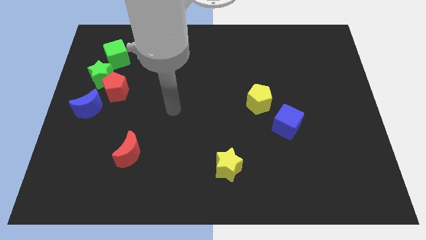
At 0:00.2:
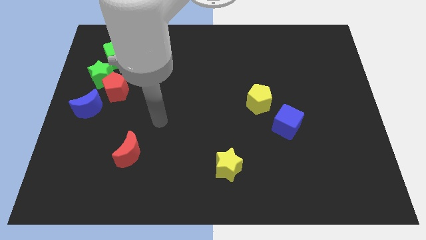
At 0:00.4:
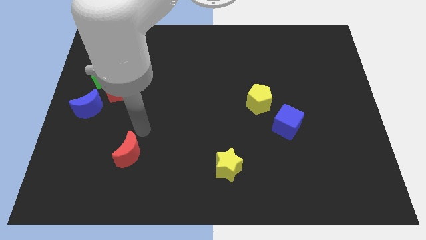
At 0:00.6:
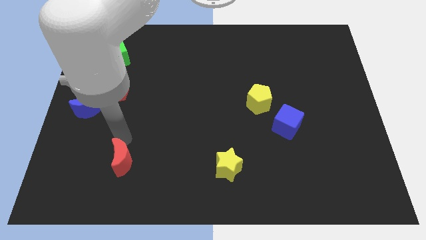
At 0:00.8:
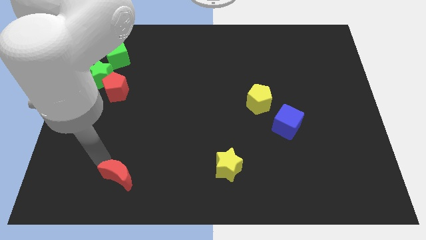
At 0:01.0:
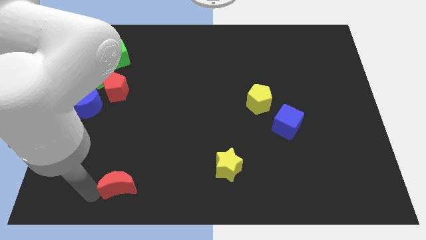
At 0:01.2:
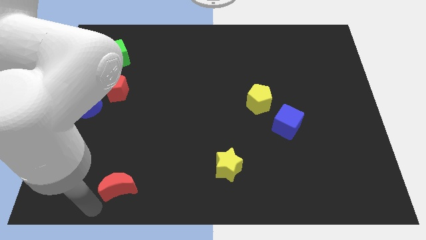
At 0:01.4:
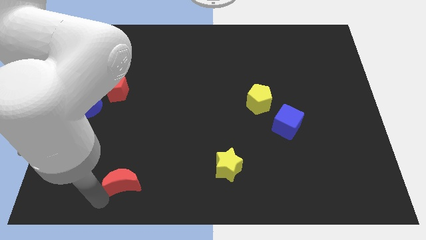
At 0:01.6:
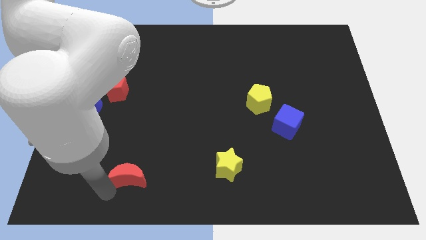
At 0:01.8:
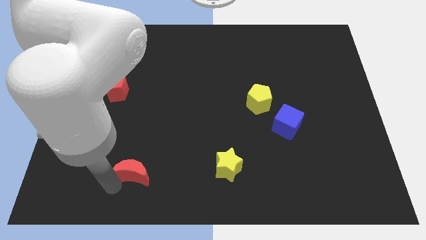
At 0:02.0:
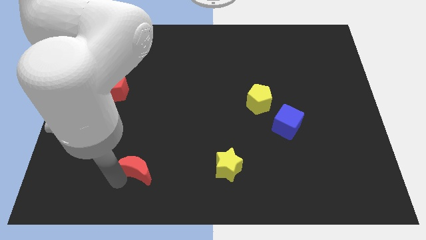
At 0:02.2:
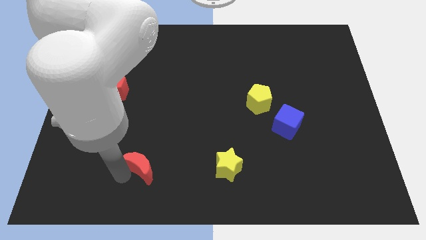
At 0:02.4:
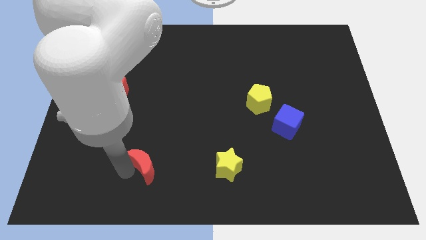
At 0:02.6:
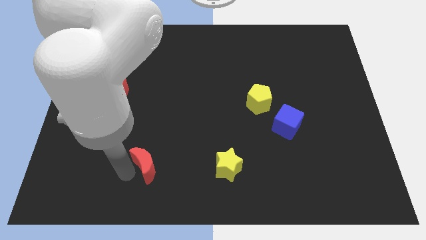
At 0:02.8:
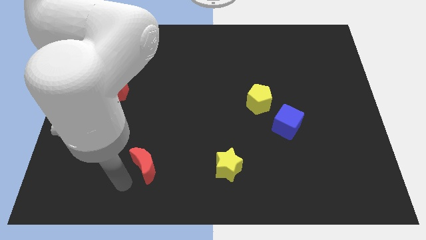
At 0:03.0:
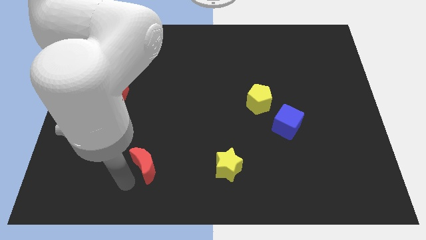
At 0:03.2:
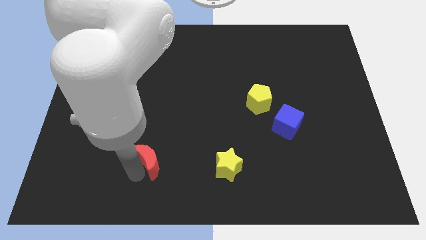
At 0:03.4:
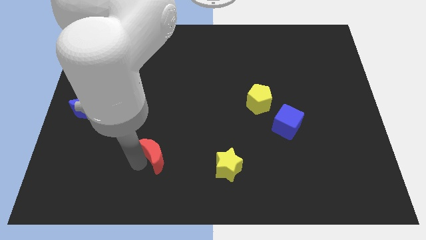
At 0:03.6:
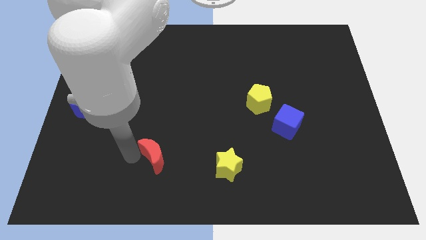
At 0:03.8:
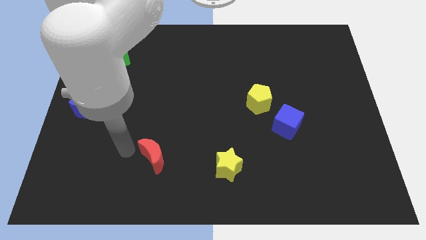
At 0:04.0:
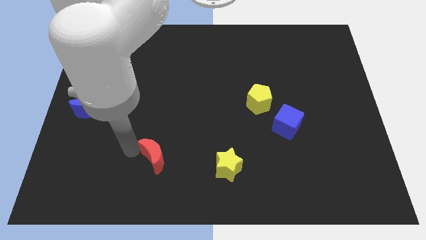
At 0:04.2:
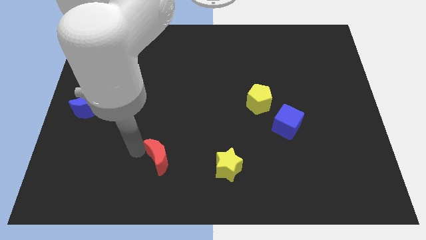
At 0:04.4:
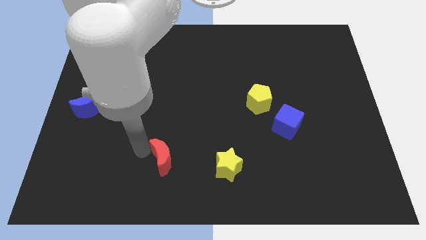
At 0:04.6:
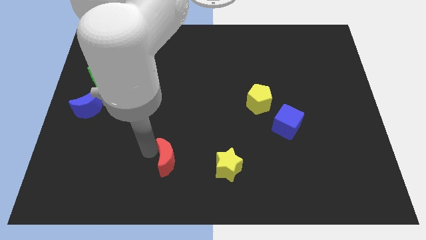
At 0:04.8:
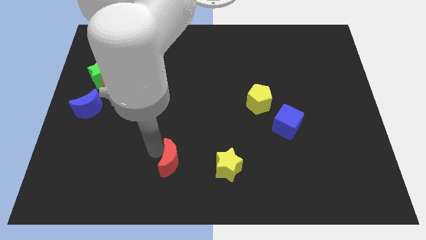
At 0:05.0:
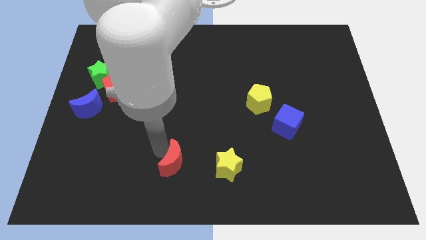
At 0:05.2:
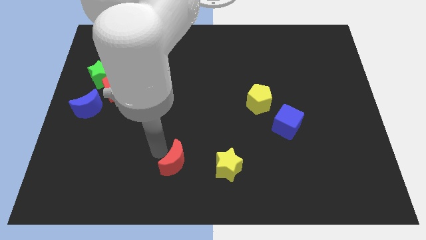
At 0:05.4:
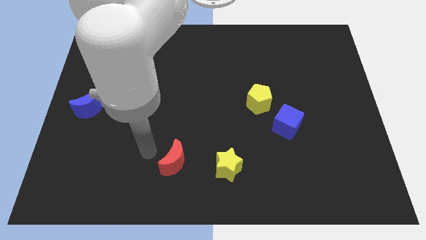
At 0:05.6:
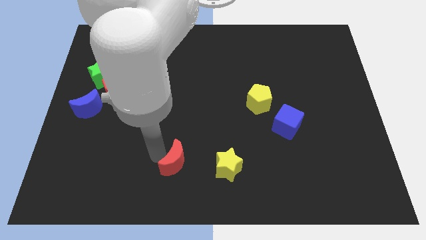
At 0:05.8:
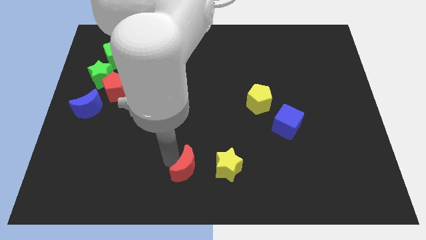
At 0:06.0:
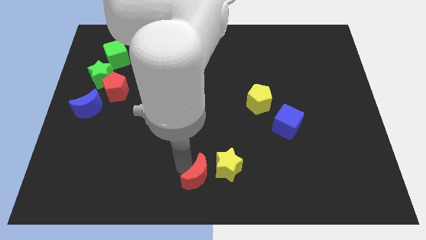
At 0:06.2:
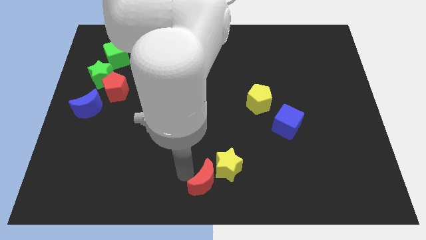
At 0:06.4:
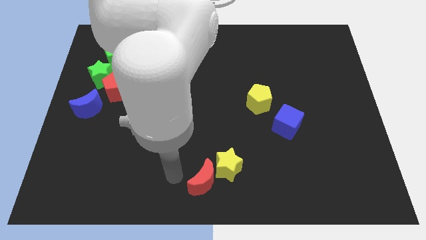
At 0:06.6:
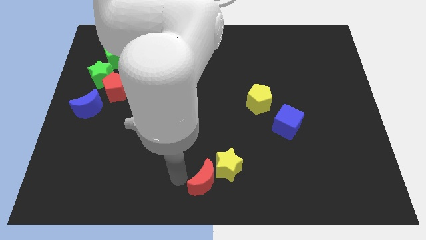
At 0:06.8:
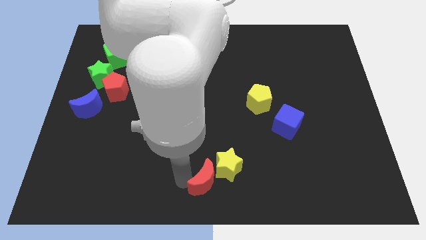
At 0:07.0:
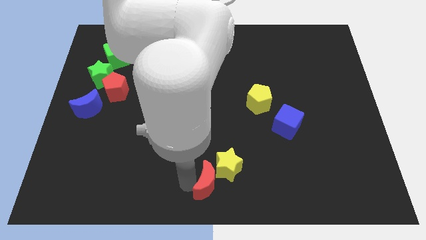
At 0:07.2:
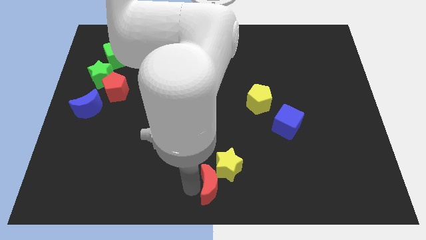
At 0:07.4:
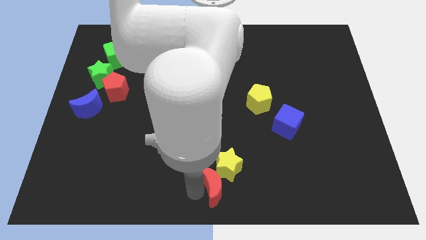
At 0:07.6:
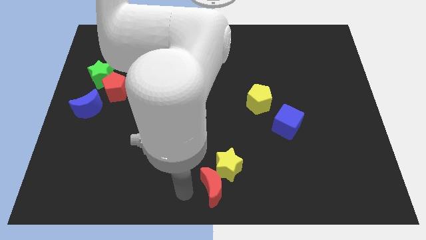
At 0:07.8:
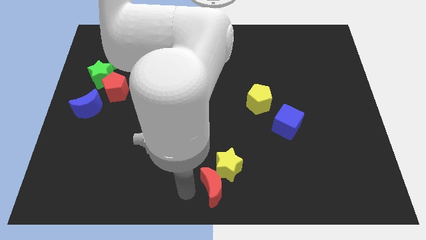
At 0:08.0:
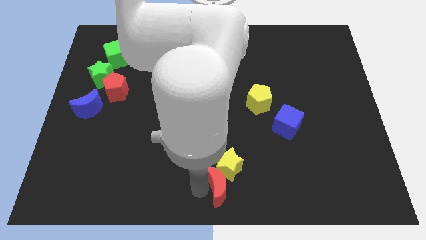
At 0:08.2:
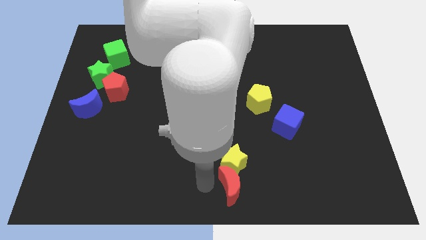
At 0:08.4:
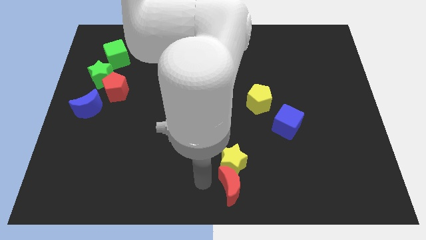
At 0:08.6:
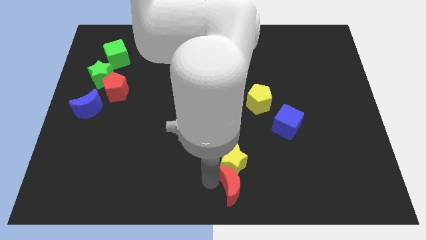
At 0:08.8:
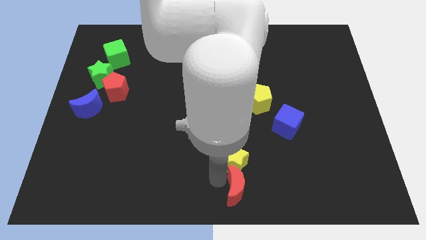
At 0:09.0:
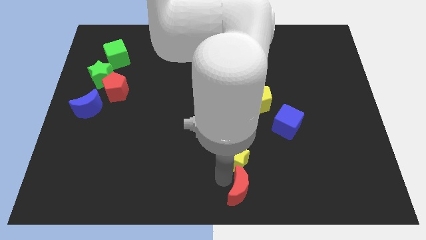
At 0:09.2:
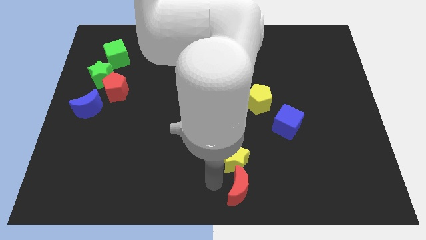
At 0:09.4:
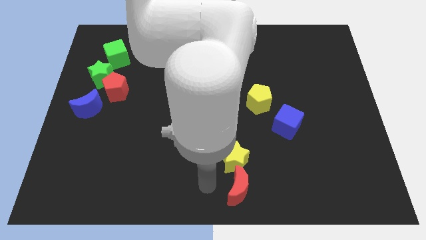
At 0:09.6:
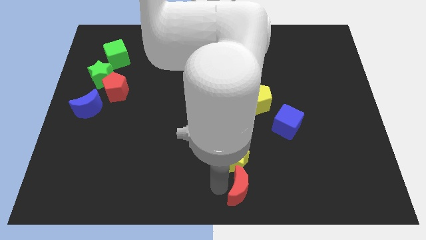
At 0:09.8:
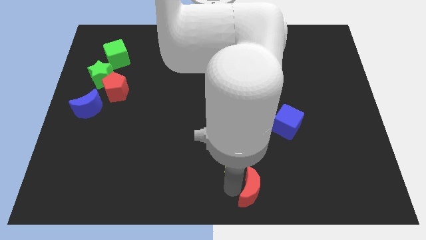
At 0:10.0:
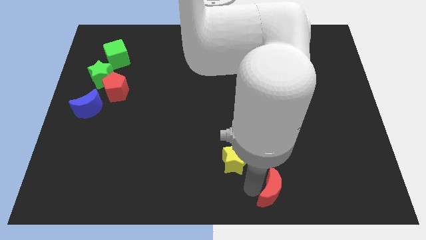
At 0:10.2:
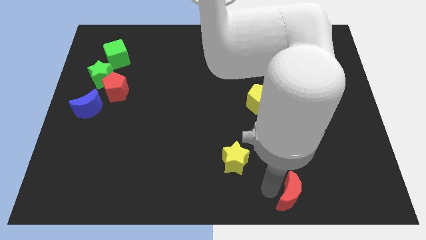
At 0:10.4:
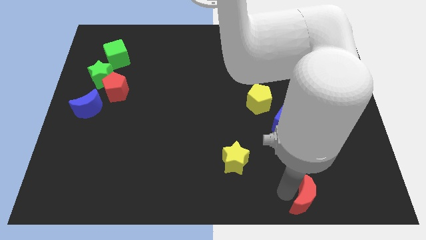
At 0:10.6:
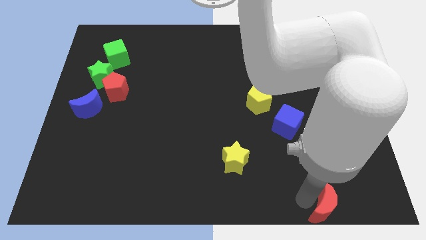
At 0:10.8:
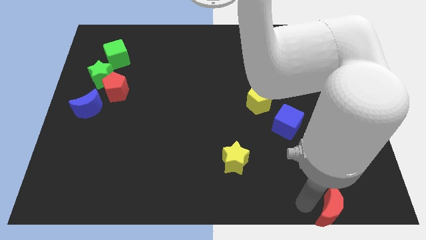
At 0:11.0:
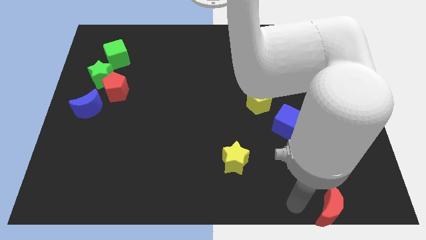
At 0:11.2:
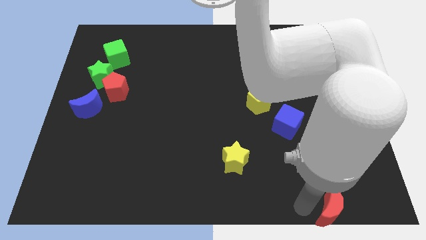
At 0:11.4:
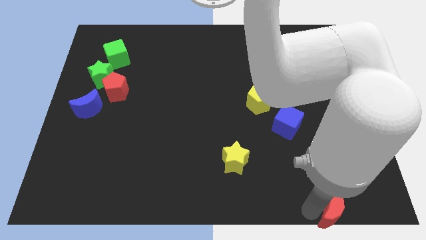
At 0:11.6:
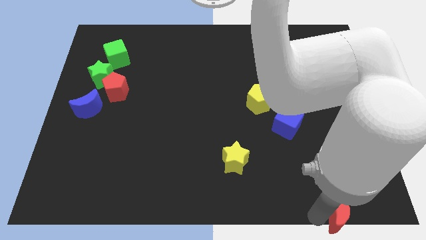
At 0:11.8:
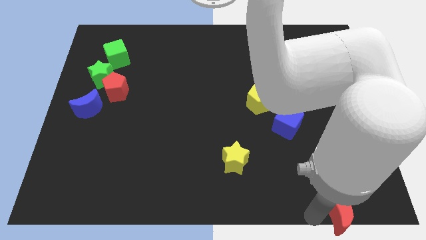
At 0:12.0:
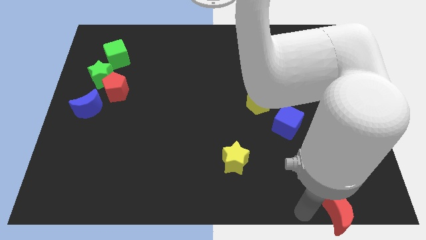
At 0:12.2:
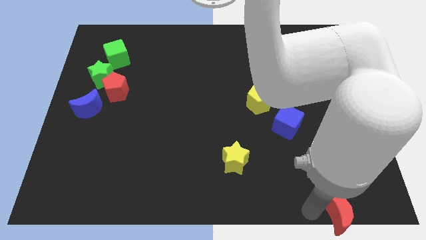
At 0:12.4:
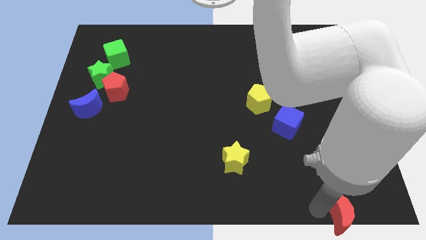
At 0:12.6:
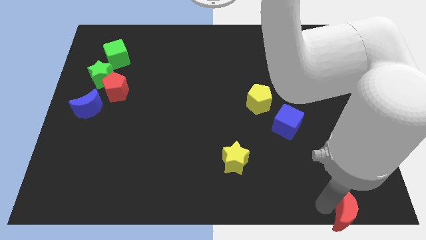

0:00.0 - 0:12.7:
move the red moon to the bottom right corner
